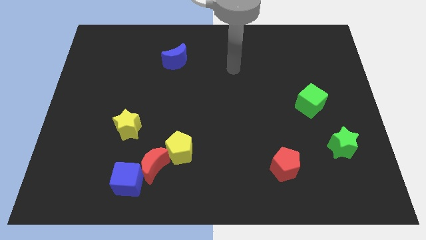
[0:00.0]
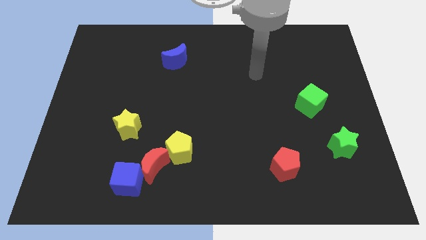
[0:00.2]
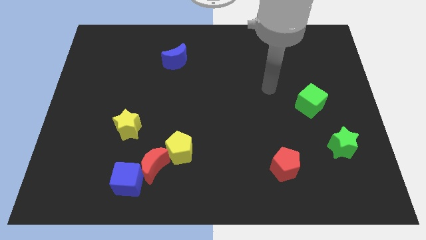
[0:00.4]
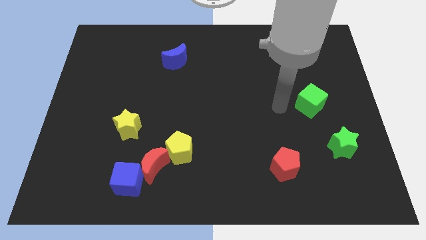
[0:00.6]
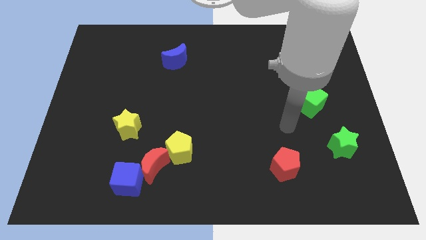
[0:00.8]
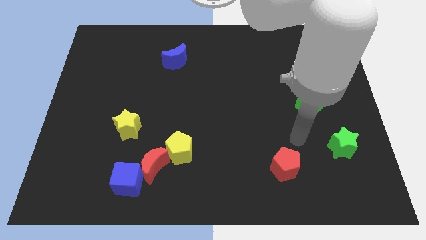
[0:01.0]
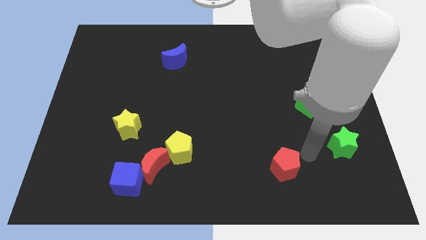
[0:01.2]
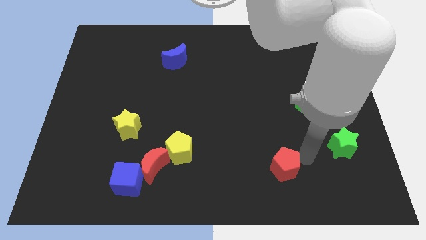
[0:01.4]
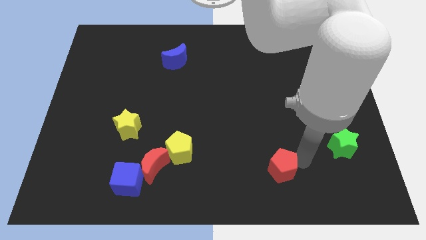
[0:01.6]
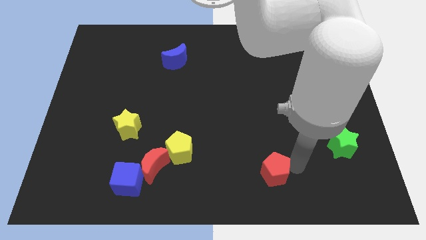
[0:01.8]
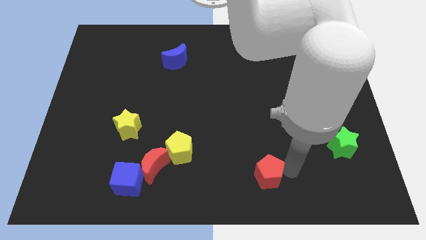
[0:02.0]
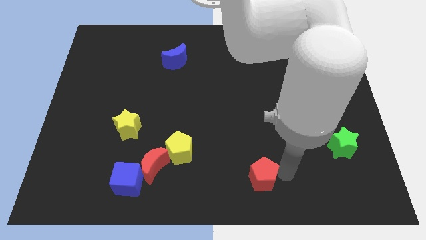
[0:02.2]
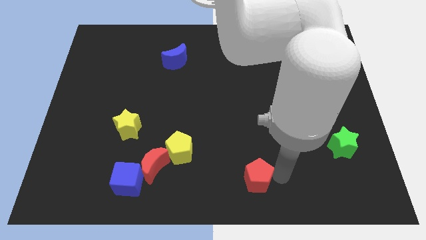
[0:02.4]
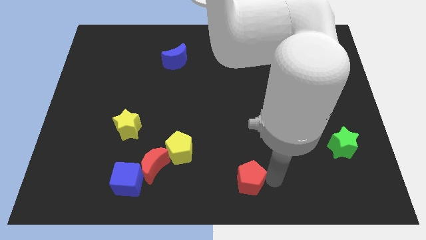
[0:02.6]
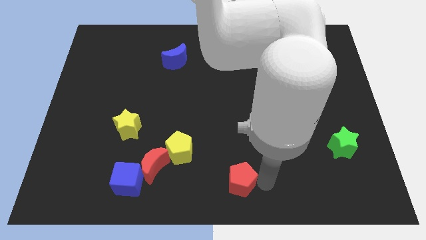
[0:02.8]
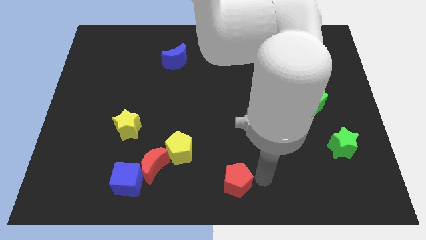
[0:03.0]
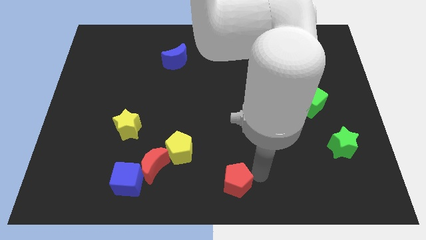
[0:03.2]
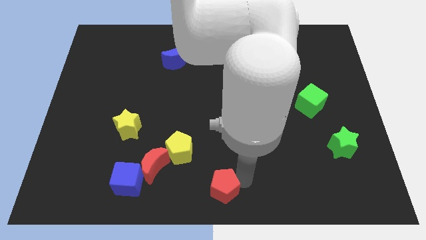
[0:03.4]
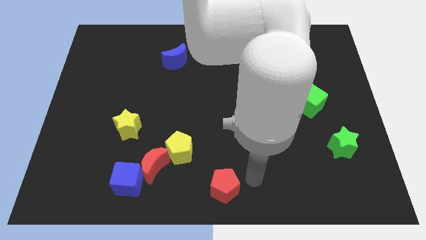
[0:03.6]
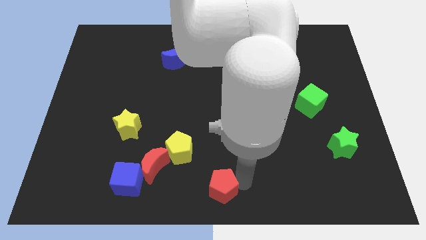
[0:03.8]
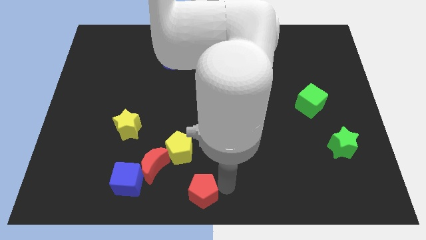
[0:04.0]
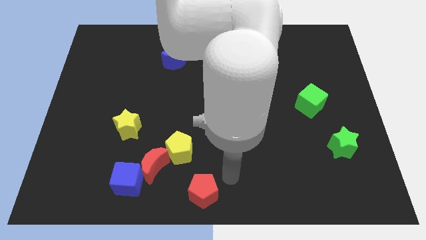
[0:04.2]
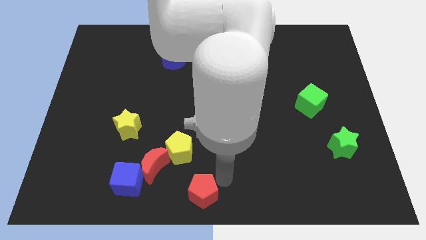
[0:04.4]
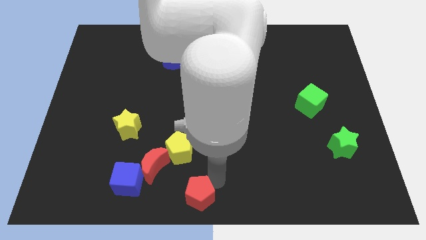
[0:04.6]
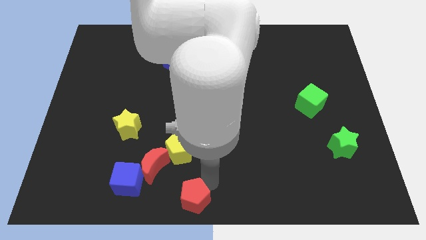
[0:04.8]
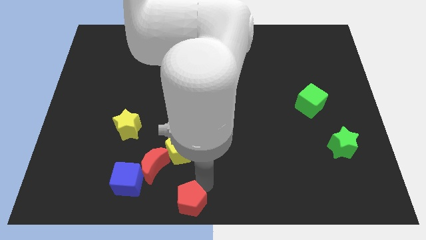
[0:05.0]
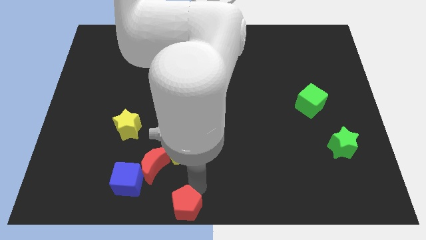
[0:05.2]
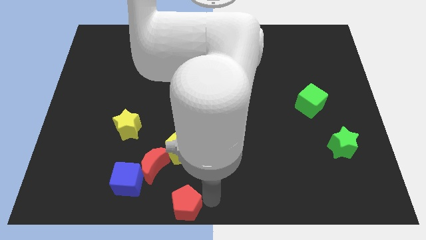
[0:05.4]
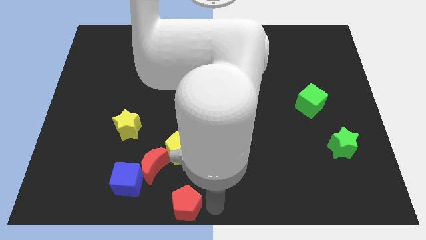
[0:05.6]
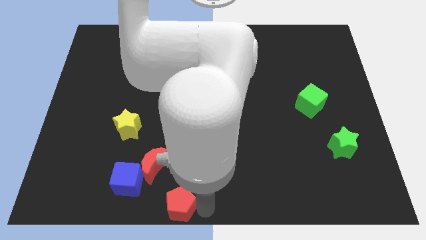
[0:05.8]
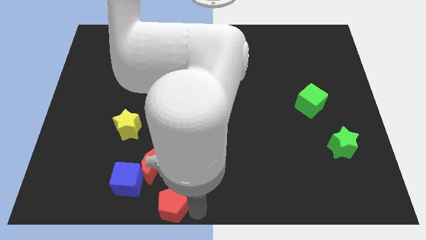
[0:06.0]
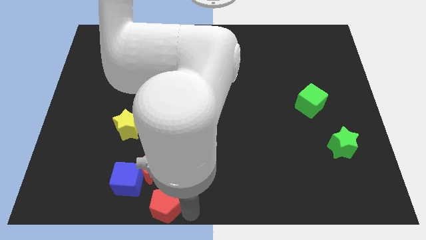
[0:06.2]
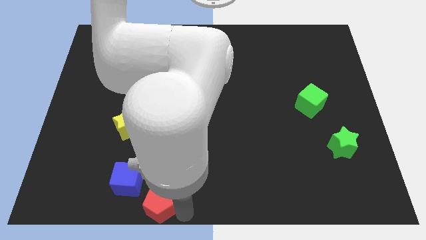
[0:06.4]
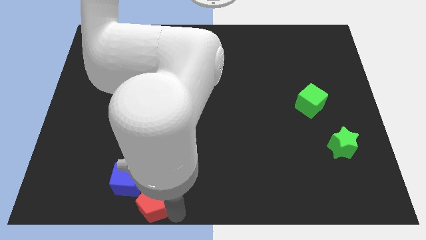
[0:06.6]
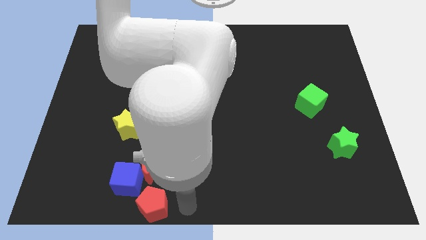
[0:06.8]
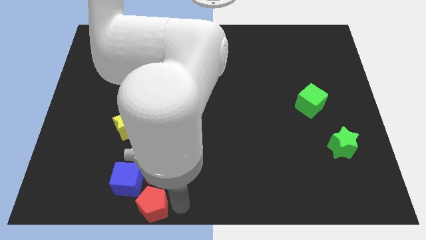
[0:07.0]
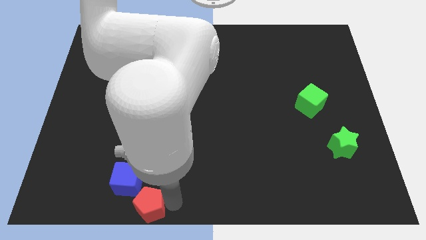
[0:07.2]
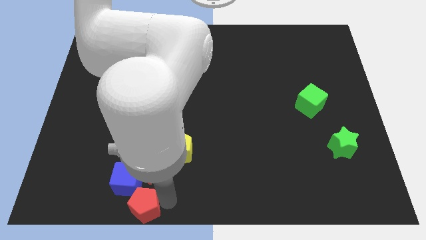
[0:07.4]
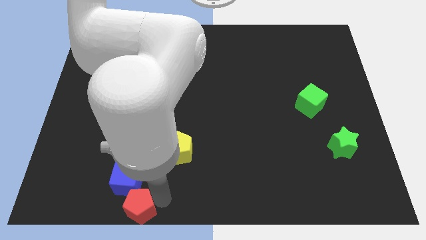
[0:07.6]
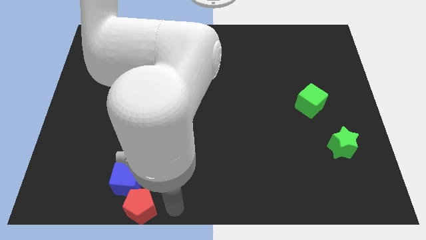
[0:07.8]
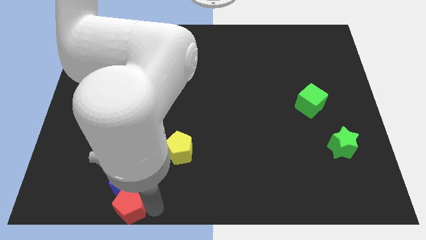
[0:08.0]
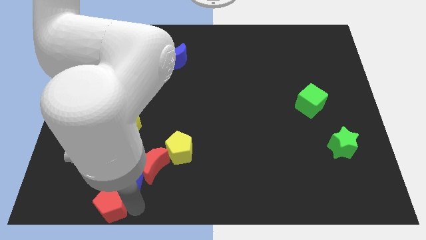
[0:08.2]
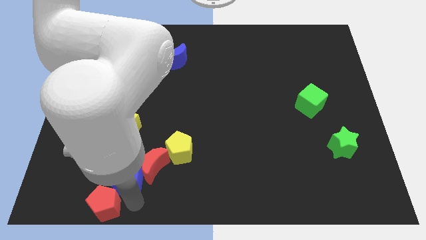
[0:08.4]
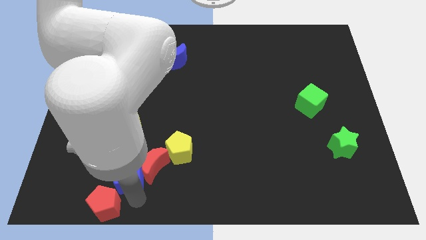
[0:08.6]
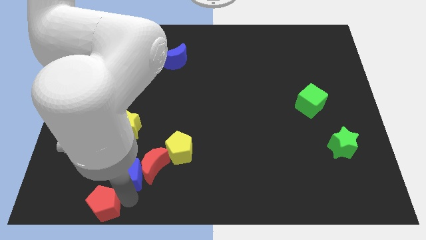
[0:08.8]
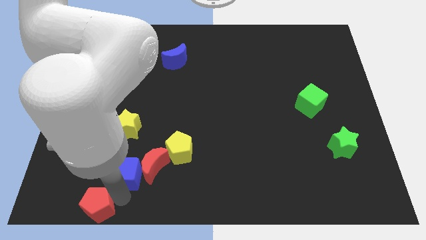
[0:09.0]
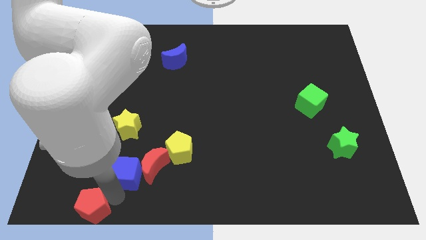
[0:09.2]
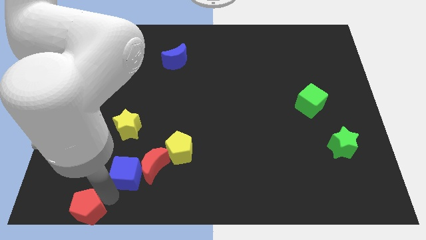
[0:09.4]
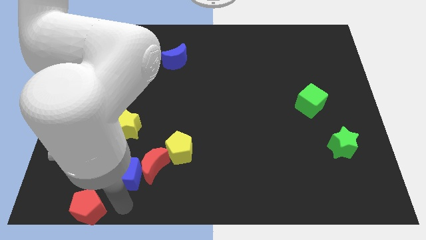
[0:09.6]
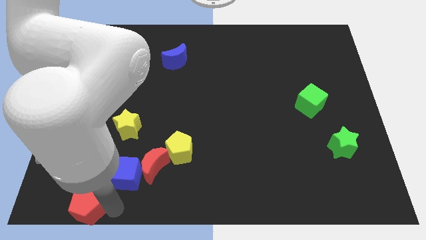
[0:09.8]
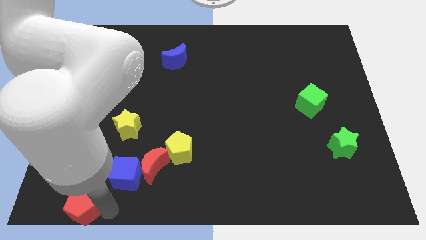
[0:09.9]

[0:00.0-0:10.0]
push the red pentagon to the bottom left of the board

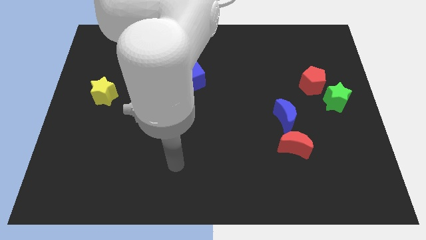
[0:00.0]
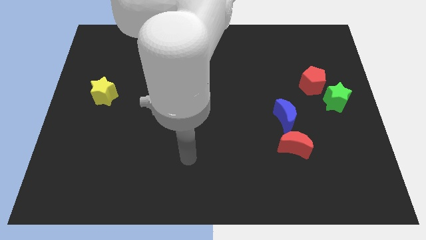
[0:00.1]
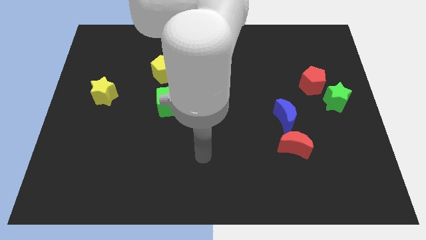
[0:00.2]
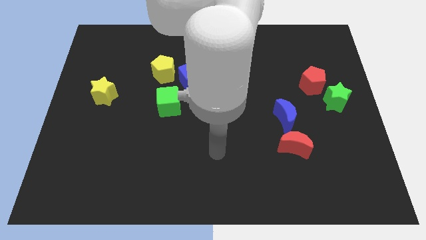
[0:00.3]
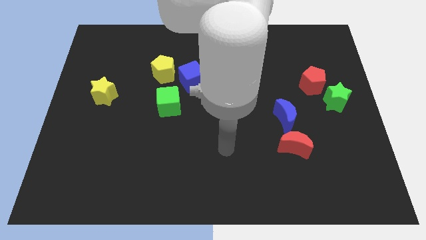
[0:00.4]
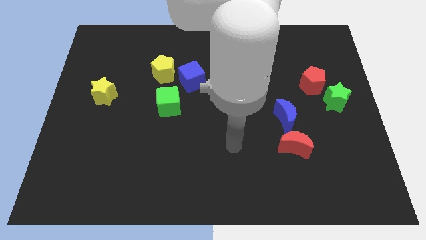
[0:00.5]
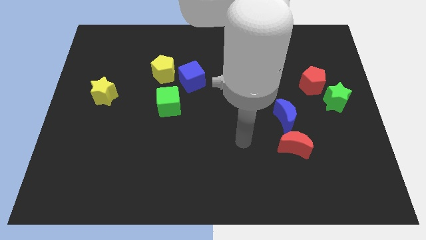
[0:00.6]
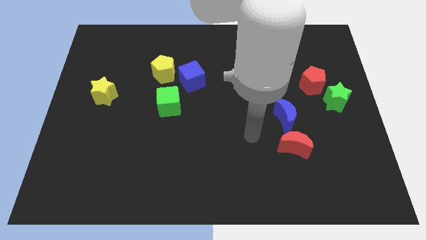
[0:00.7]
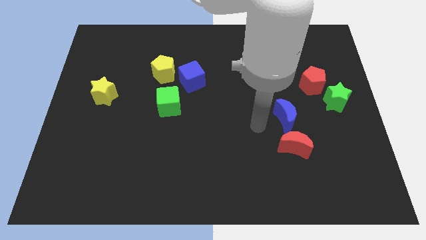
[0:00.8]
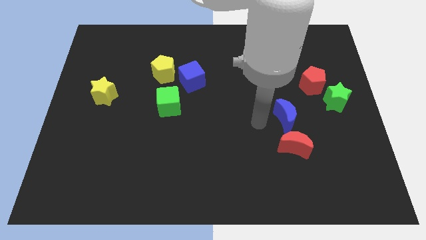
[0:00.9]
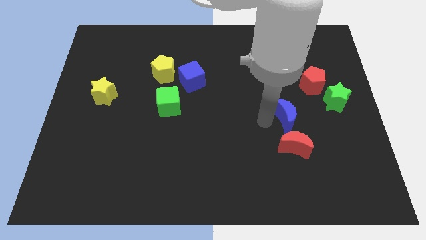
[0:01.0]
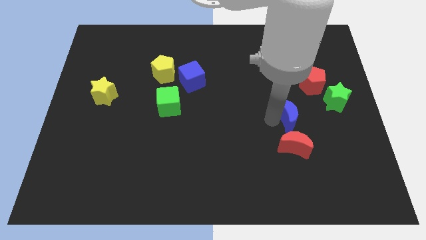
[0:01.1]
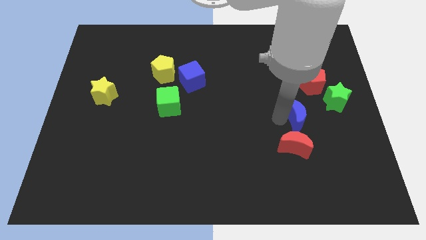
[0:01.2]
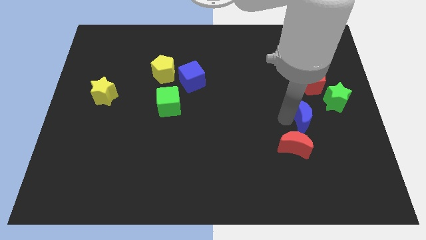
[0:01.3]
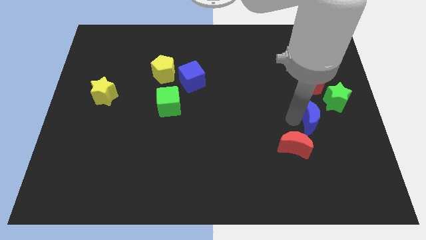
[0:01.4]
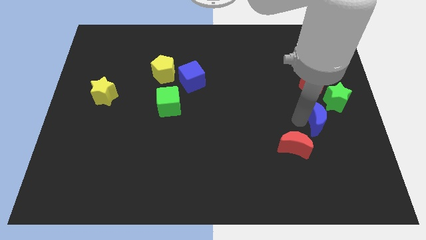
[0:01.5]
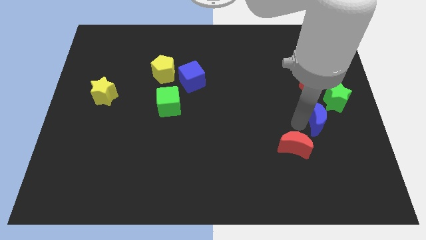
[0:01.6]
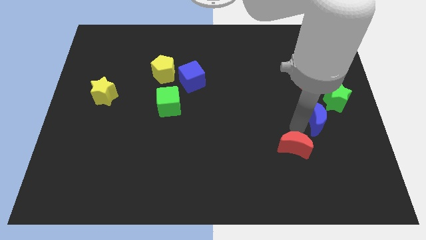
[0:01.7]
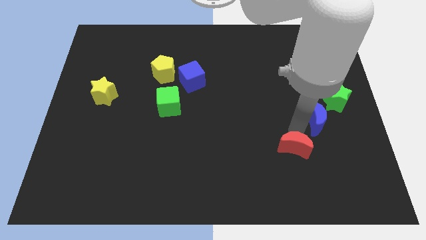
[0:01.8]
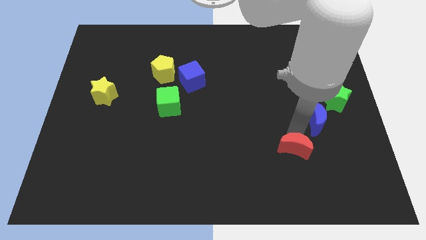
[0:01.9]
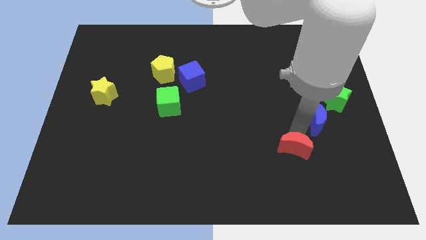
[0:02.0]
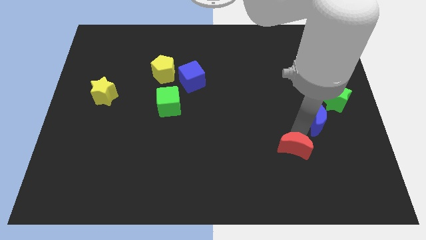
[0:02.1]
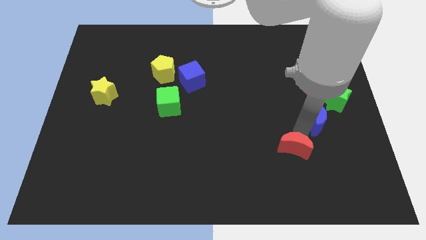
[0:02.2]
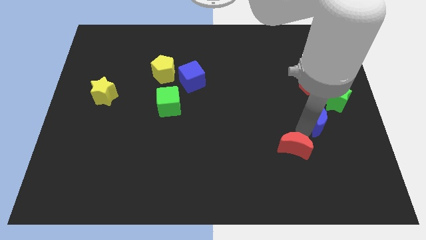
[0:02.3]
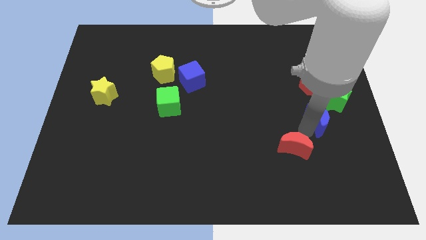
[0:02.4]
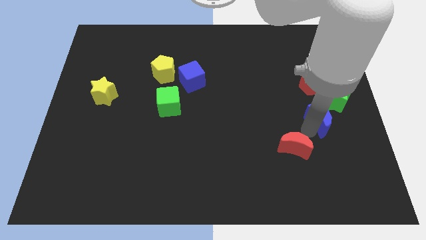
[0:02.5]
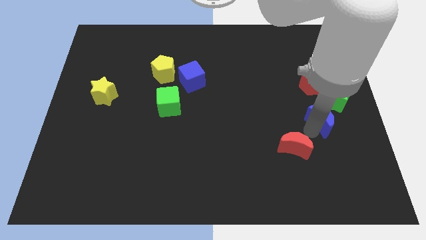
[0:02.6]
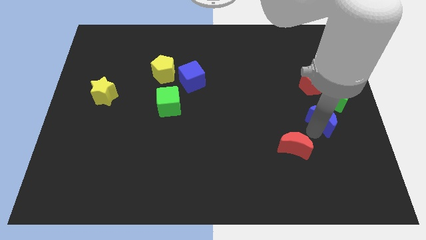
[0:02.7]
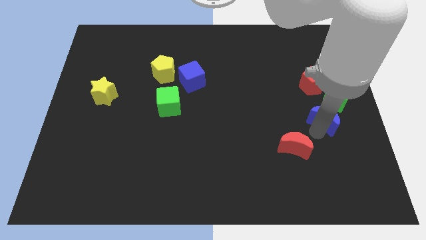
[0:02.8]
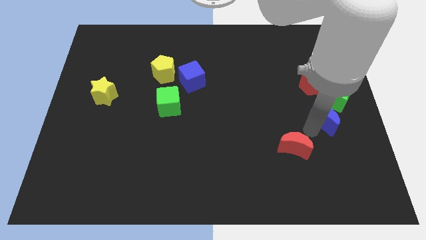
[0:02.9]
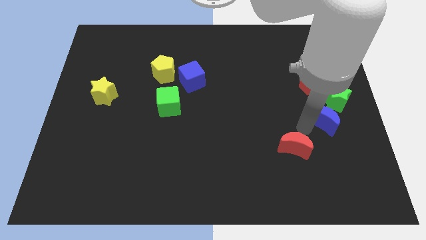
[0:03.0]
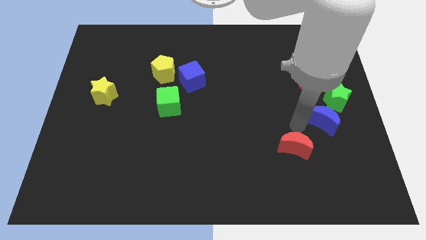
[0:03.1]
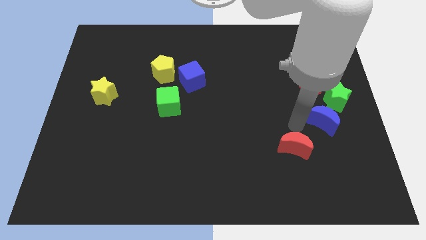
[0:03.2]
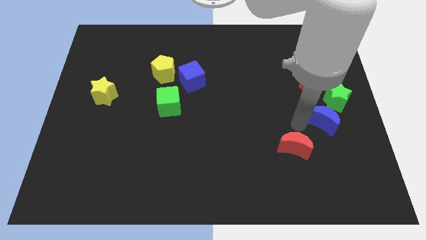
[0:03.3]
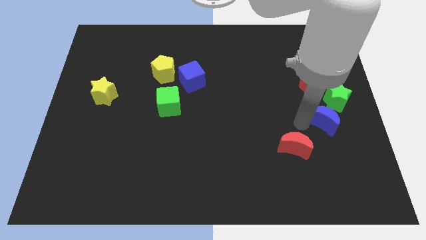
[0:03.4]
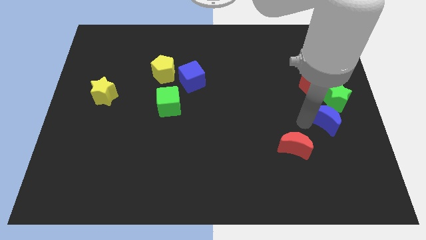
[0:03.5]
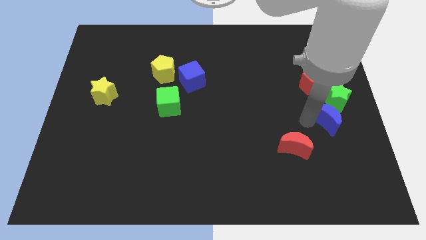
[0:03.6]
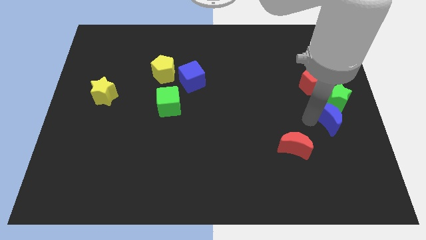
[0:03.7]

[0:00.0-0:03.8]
put the blue moon to the right side of the board
